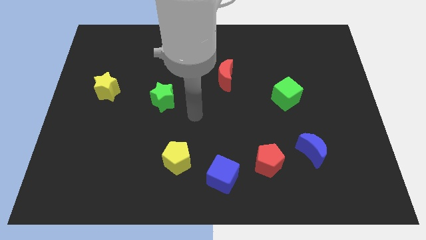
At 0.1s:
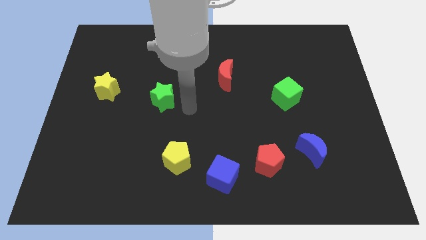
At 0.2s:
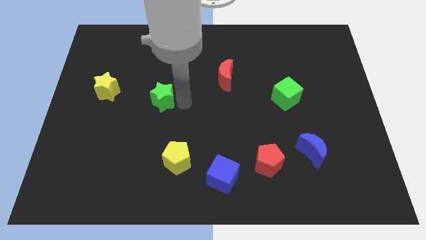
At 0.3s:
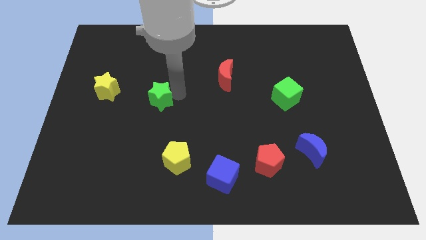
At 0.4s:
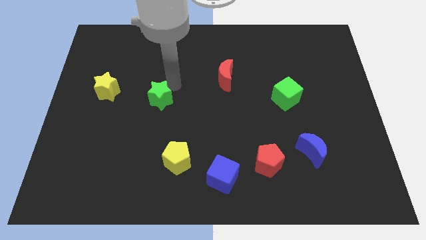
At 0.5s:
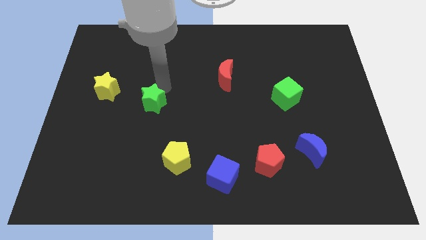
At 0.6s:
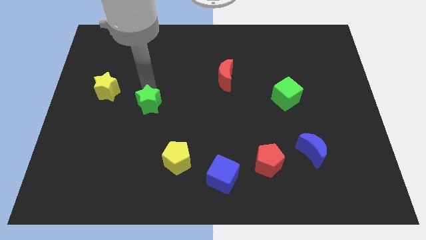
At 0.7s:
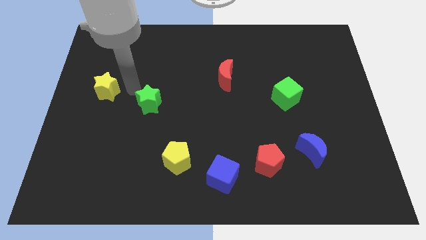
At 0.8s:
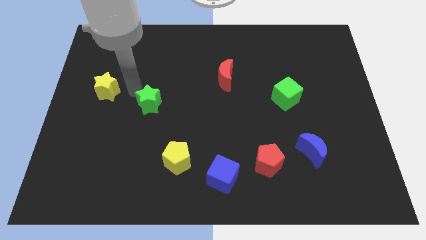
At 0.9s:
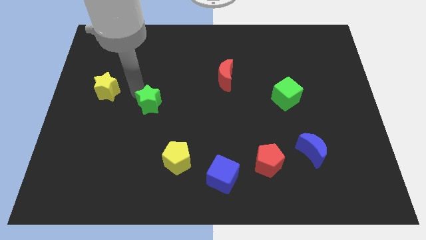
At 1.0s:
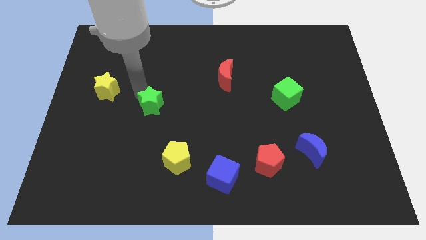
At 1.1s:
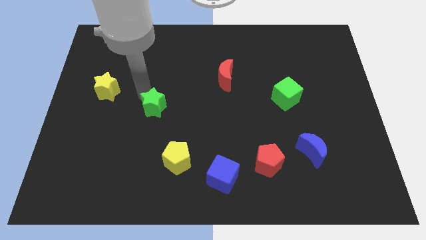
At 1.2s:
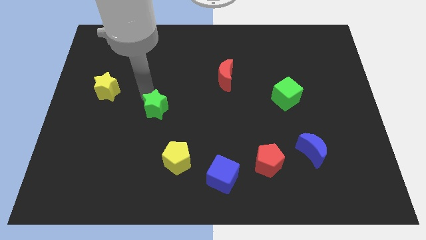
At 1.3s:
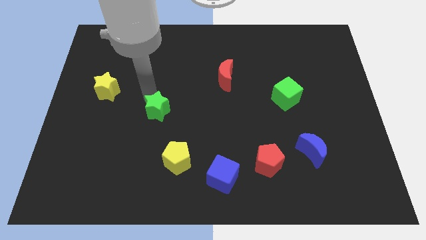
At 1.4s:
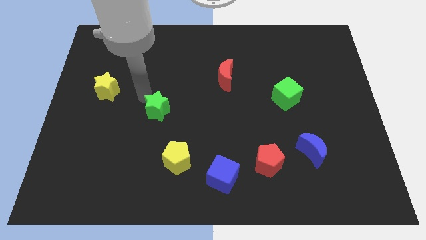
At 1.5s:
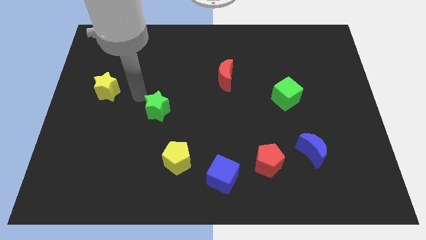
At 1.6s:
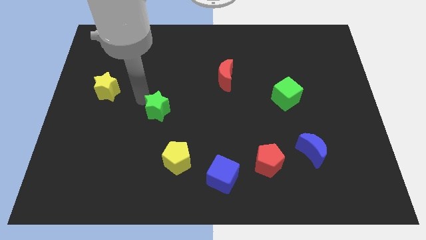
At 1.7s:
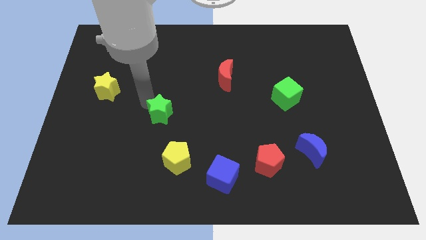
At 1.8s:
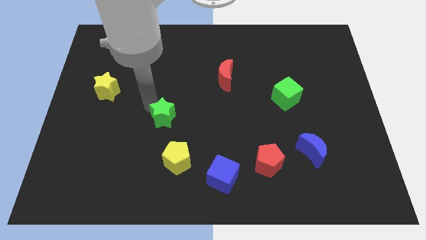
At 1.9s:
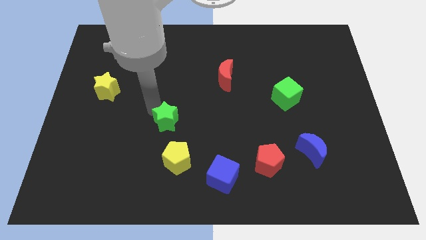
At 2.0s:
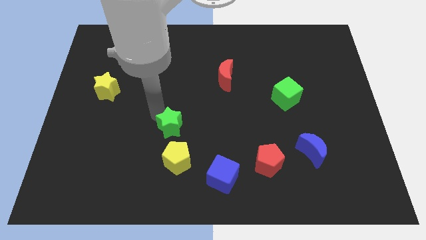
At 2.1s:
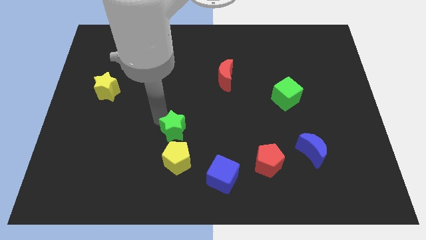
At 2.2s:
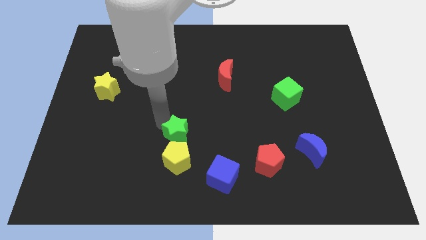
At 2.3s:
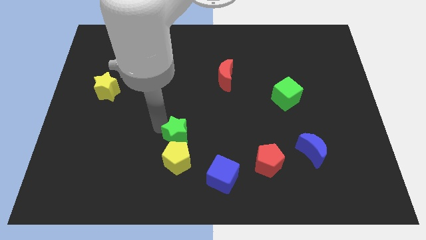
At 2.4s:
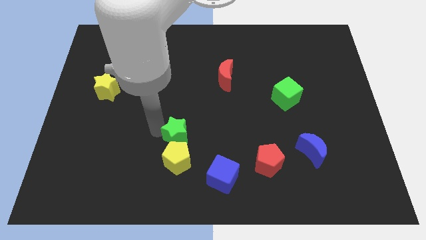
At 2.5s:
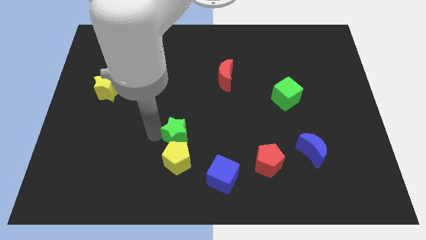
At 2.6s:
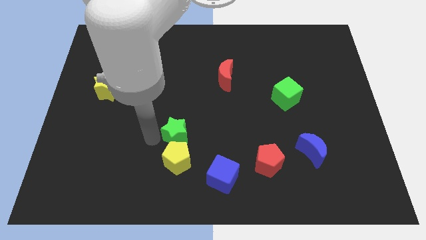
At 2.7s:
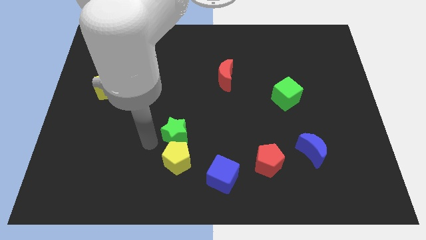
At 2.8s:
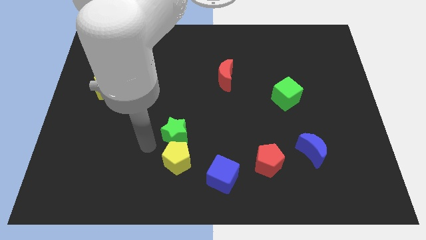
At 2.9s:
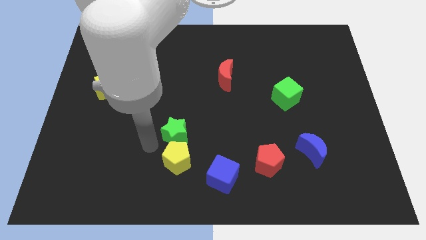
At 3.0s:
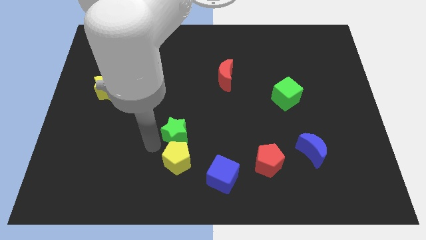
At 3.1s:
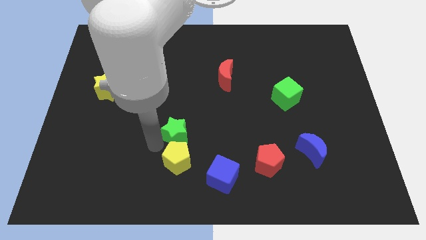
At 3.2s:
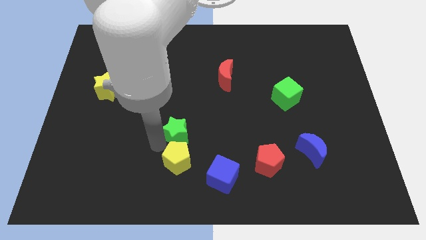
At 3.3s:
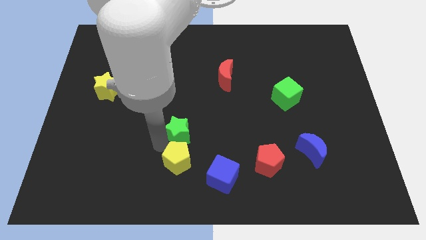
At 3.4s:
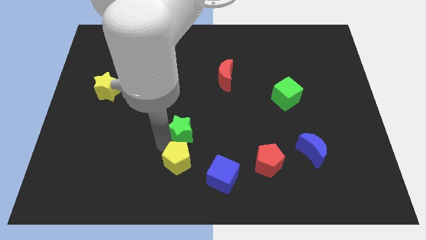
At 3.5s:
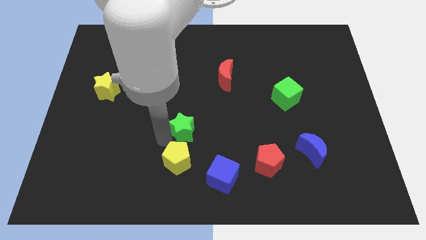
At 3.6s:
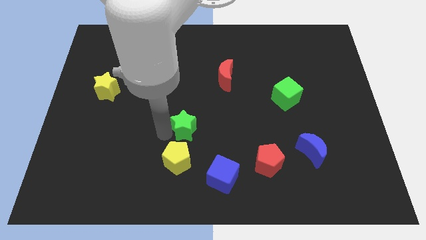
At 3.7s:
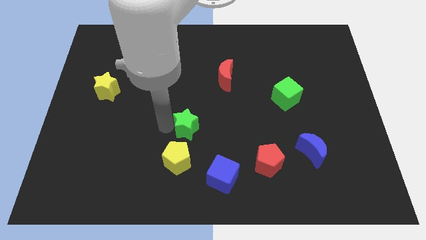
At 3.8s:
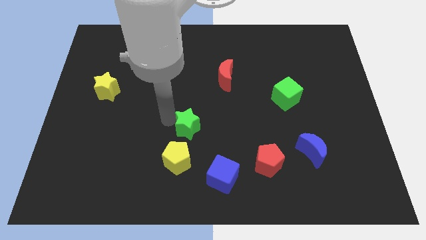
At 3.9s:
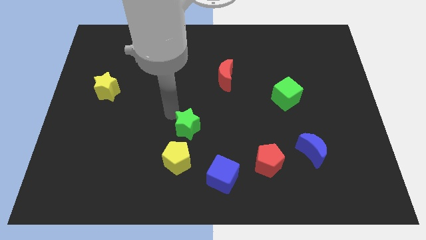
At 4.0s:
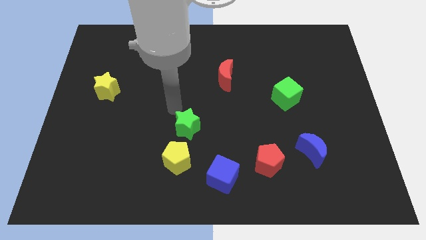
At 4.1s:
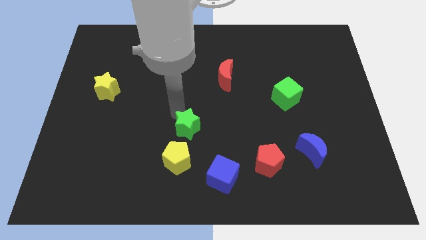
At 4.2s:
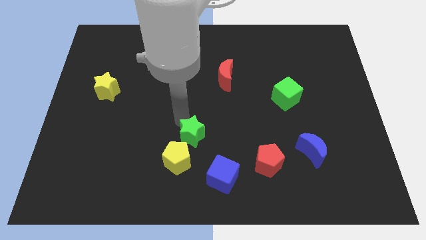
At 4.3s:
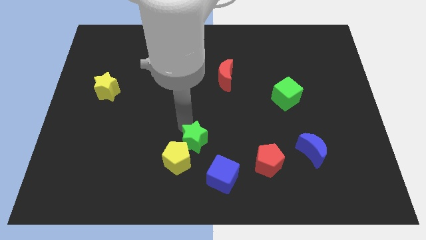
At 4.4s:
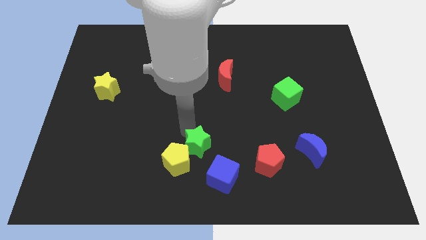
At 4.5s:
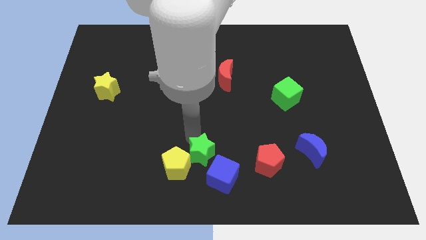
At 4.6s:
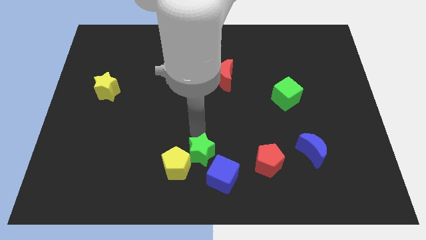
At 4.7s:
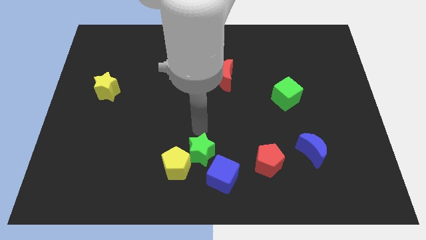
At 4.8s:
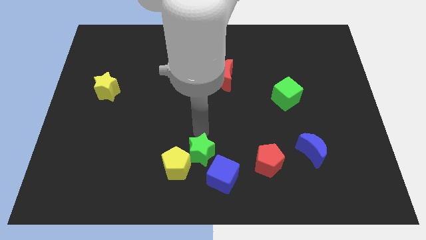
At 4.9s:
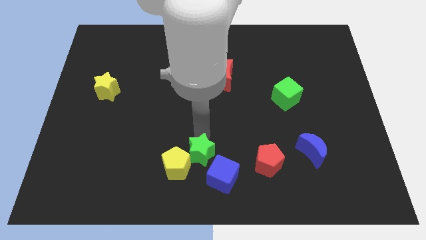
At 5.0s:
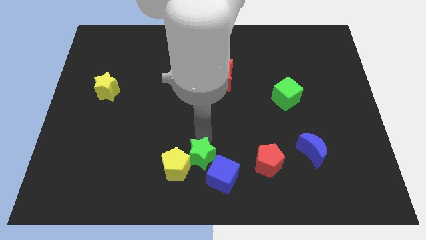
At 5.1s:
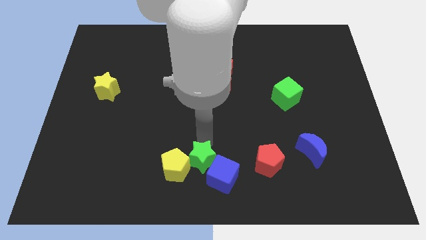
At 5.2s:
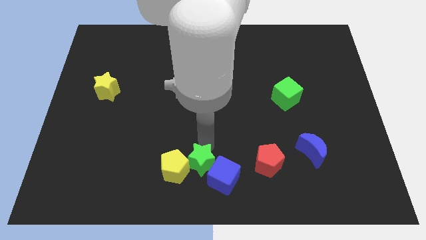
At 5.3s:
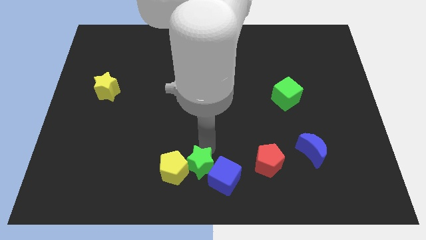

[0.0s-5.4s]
slide the green star diagonally down and to the right of the yellow pentagon

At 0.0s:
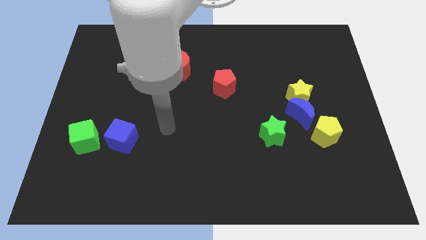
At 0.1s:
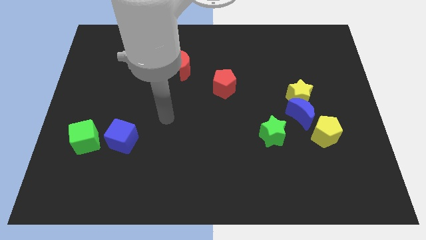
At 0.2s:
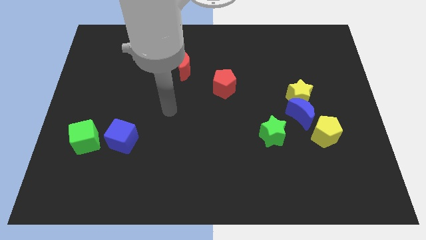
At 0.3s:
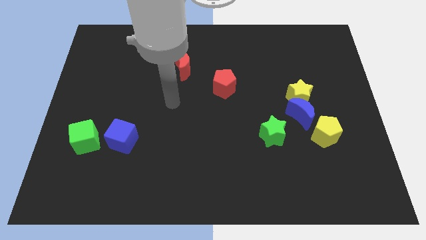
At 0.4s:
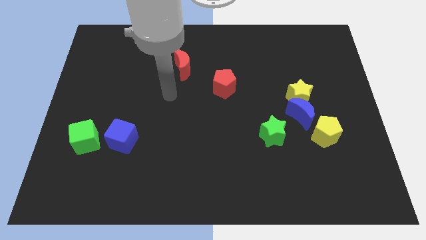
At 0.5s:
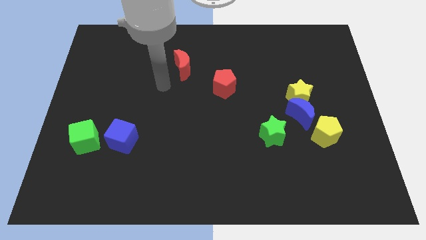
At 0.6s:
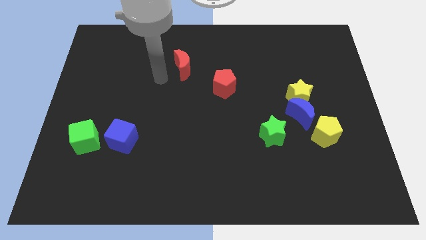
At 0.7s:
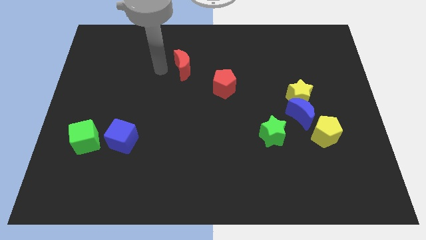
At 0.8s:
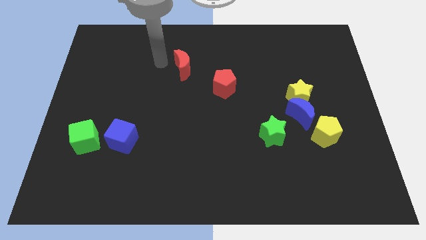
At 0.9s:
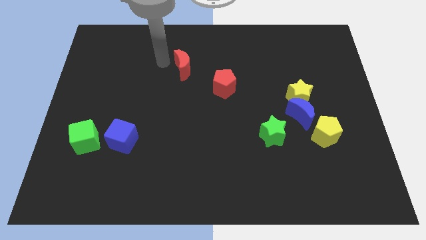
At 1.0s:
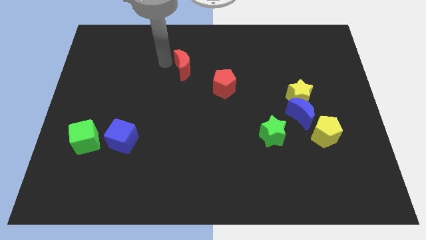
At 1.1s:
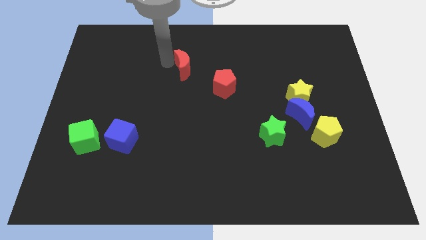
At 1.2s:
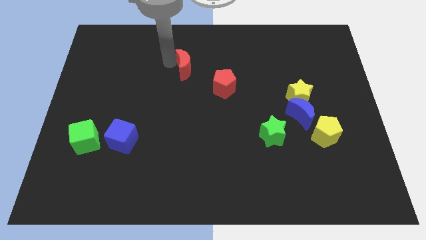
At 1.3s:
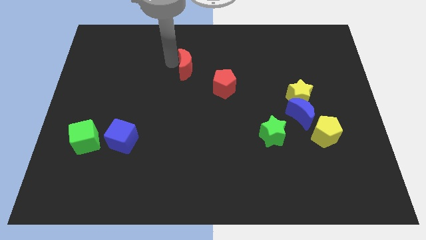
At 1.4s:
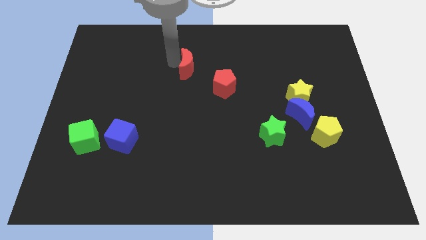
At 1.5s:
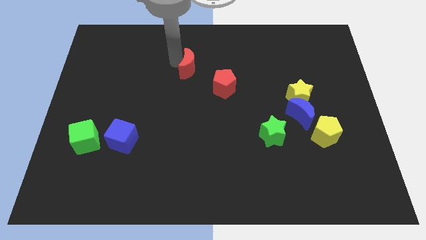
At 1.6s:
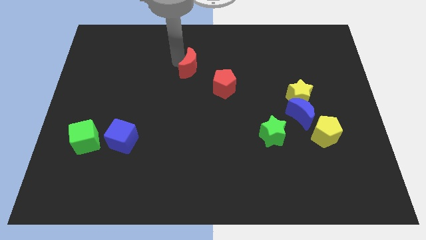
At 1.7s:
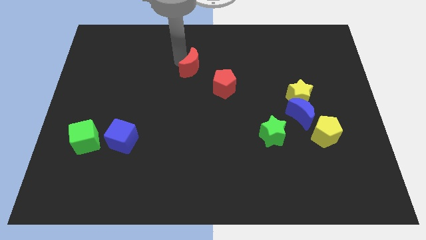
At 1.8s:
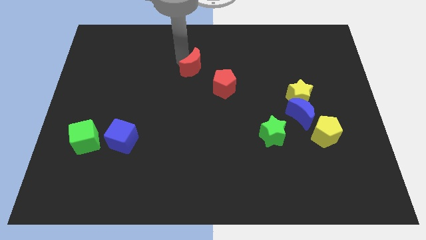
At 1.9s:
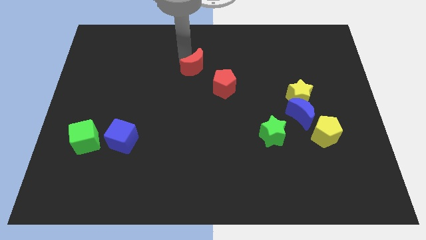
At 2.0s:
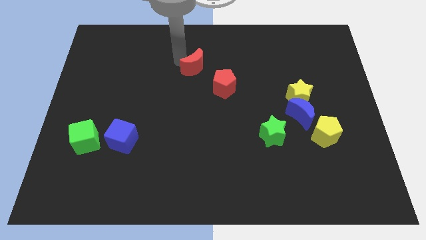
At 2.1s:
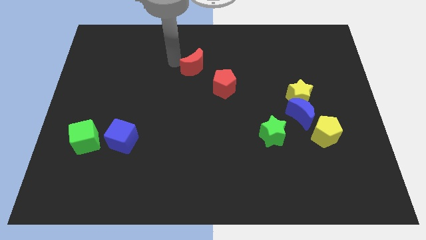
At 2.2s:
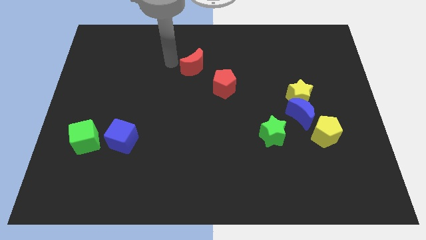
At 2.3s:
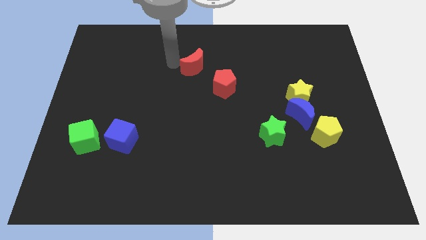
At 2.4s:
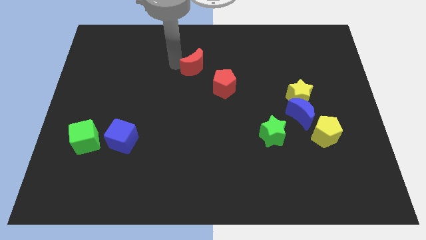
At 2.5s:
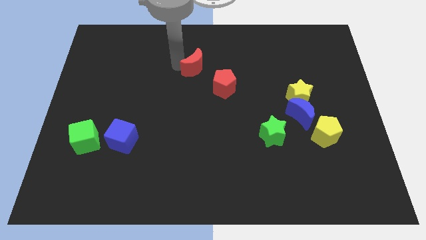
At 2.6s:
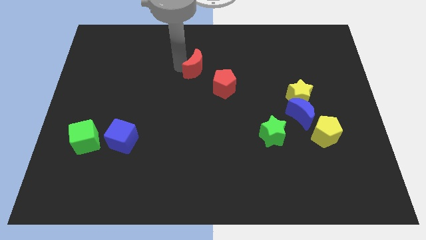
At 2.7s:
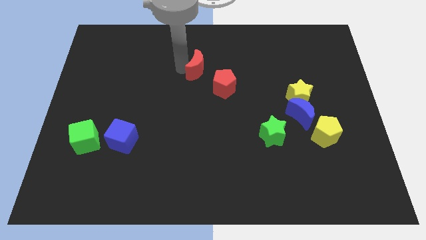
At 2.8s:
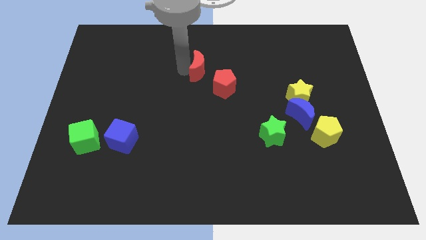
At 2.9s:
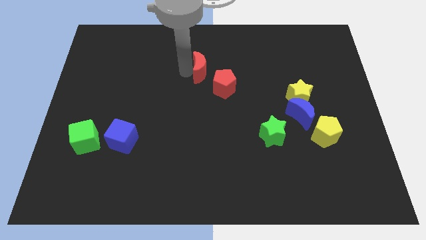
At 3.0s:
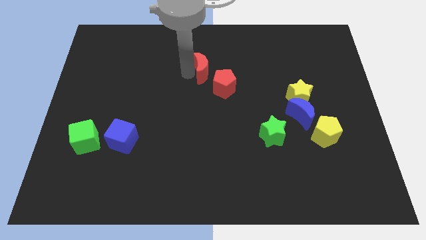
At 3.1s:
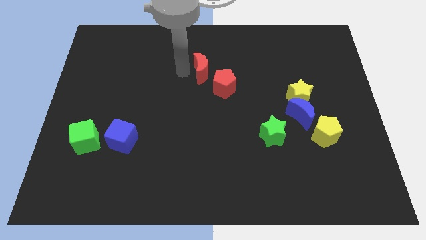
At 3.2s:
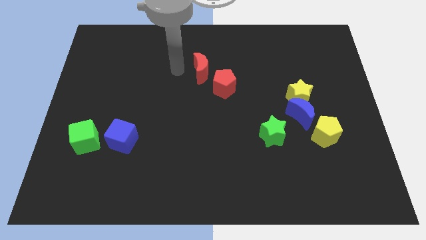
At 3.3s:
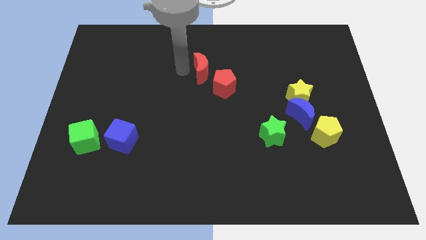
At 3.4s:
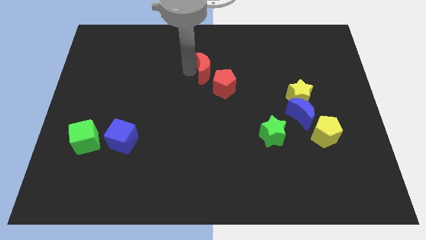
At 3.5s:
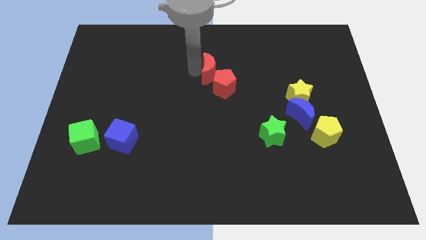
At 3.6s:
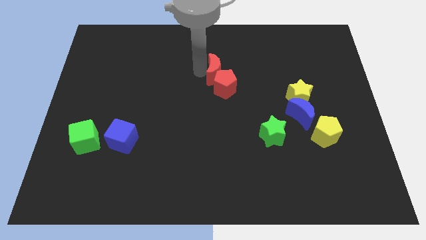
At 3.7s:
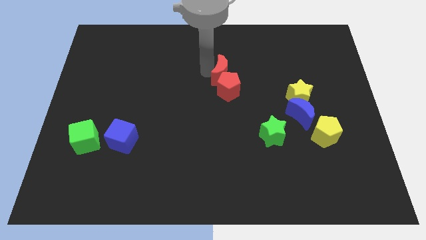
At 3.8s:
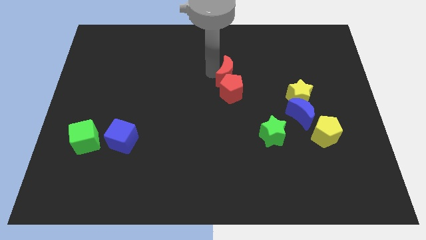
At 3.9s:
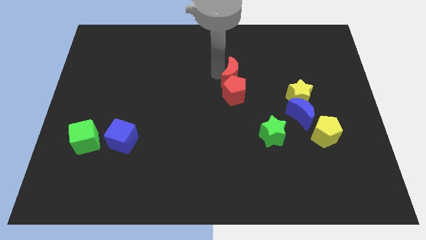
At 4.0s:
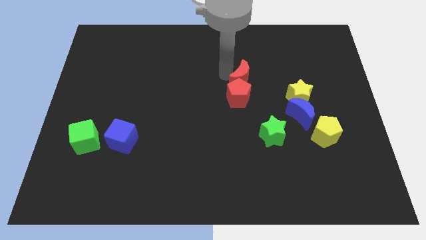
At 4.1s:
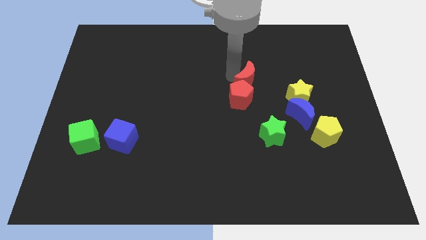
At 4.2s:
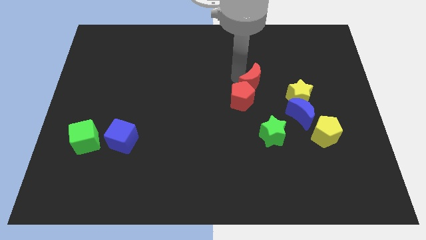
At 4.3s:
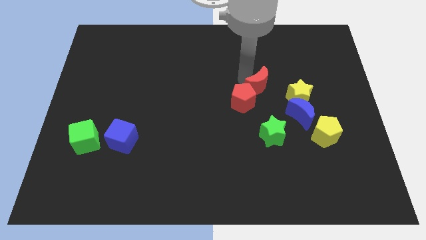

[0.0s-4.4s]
slide the red moon to the top left side of the blue moon
